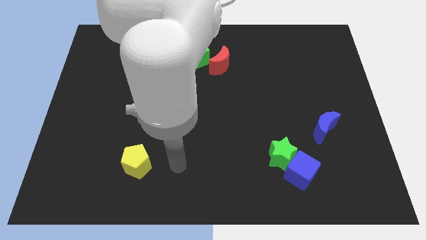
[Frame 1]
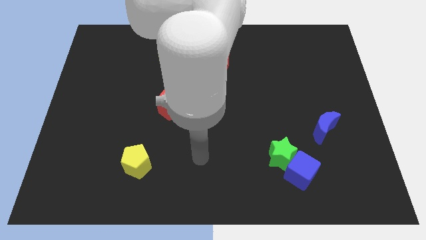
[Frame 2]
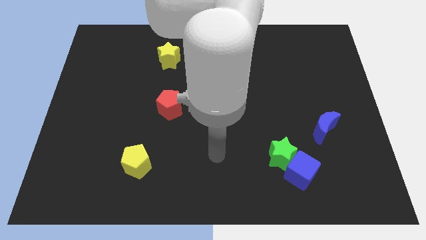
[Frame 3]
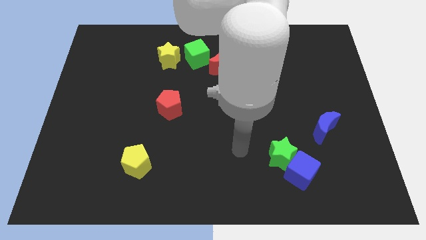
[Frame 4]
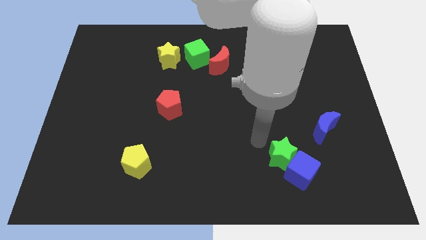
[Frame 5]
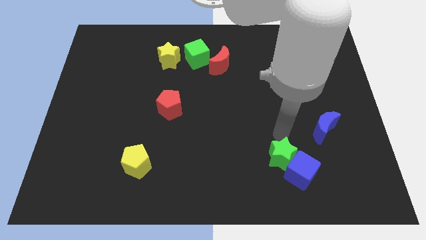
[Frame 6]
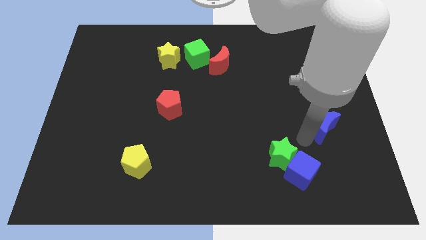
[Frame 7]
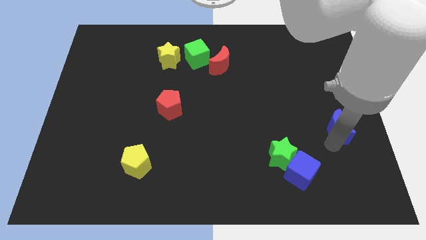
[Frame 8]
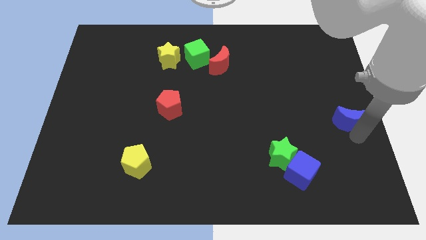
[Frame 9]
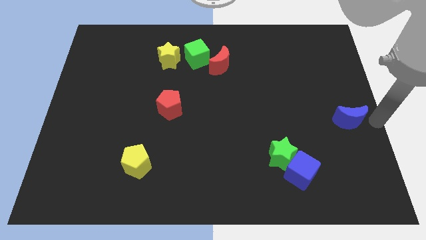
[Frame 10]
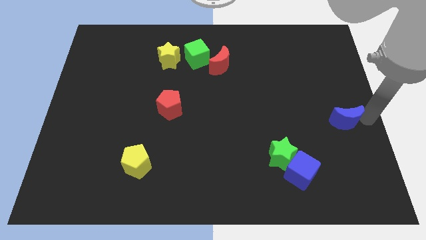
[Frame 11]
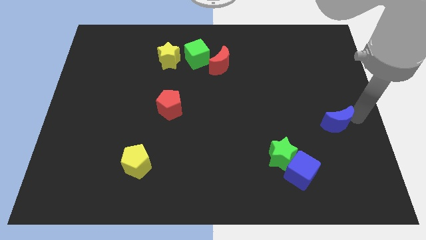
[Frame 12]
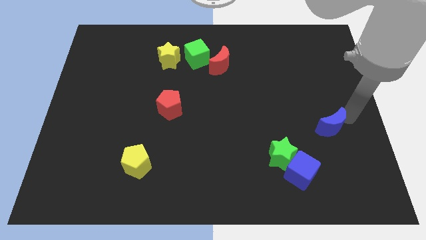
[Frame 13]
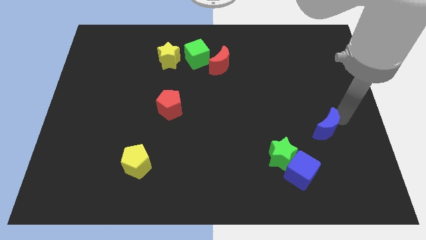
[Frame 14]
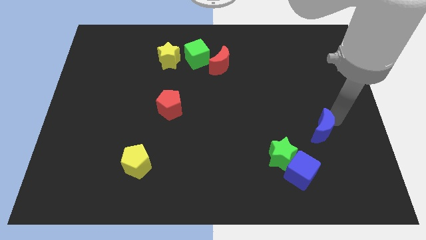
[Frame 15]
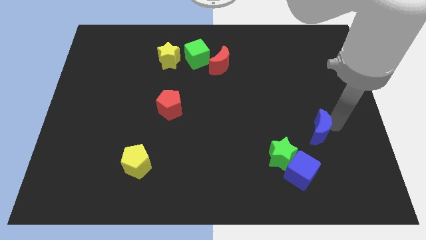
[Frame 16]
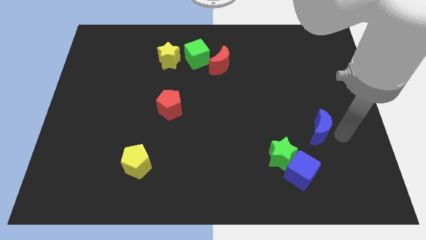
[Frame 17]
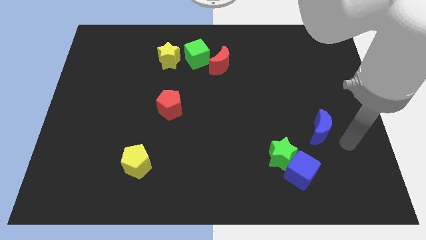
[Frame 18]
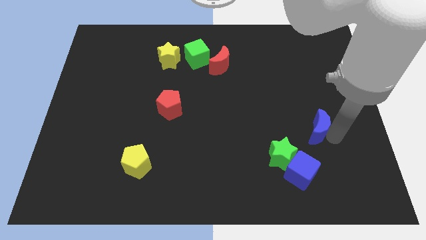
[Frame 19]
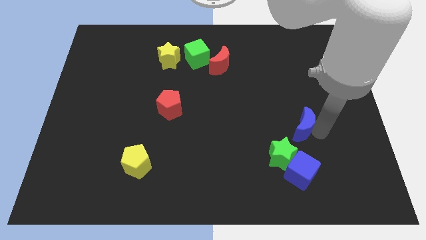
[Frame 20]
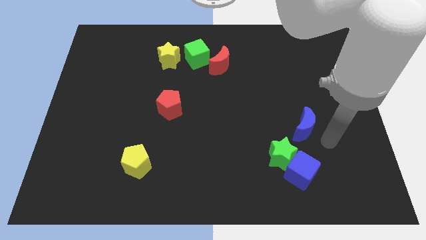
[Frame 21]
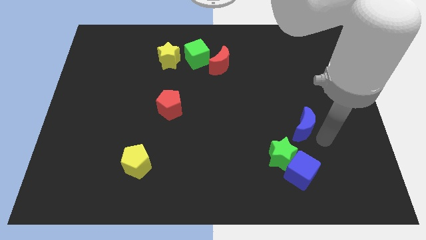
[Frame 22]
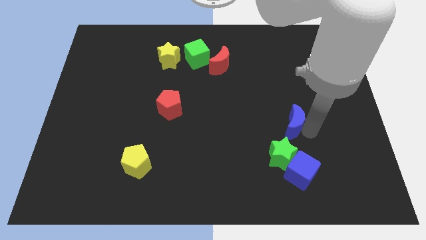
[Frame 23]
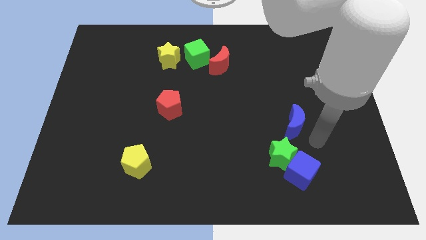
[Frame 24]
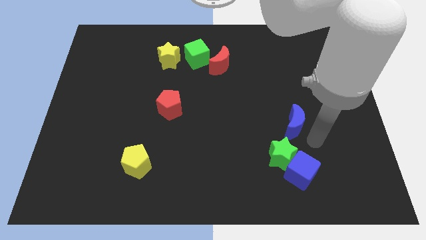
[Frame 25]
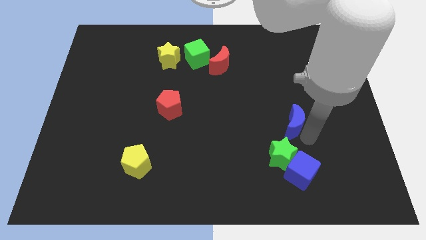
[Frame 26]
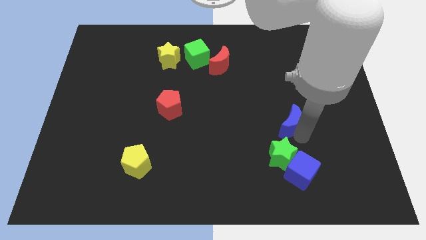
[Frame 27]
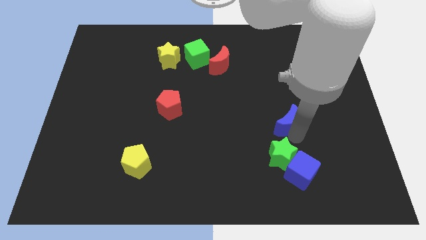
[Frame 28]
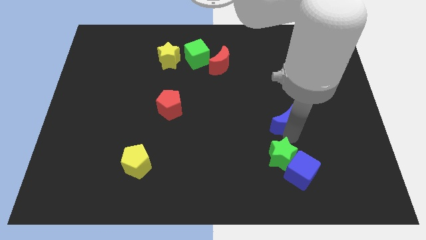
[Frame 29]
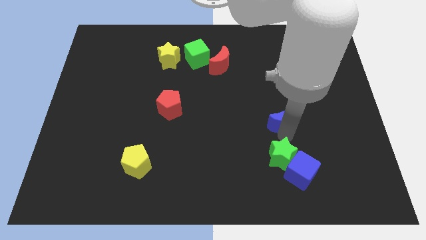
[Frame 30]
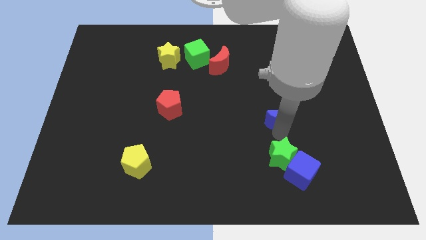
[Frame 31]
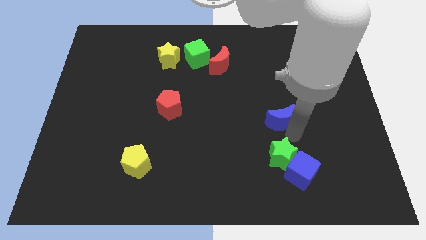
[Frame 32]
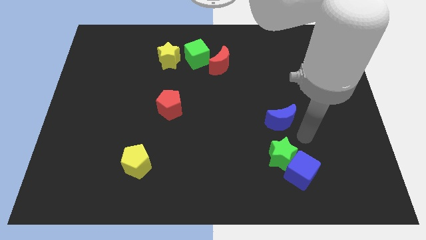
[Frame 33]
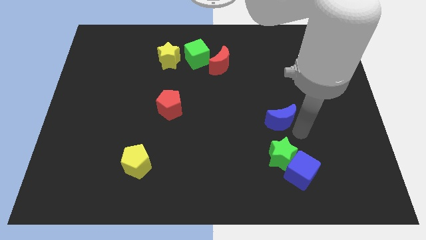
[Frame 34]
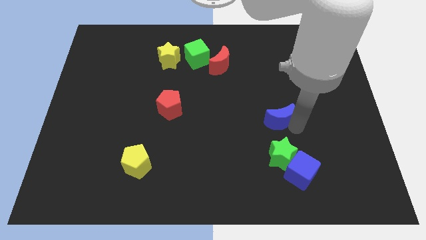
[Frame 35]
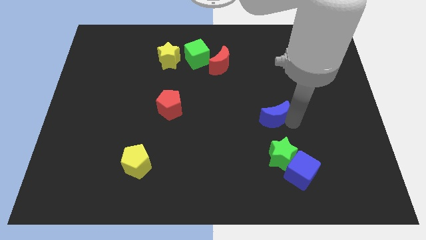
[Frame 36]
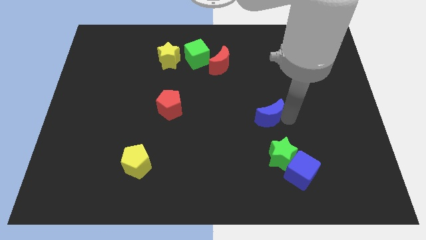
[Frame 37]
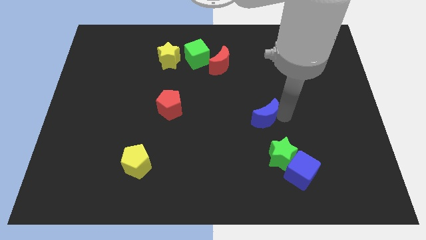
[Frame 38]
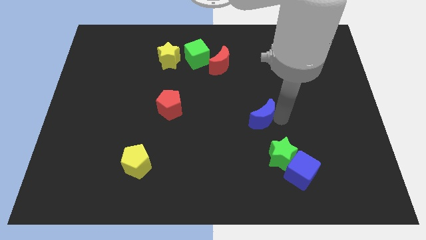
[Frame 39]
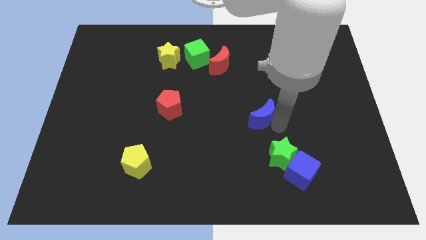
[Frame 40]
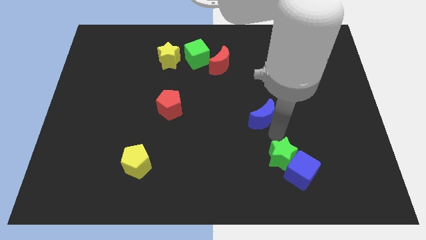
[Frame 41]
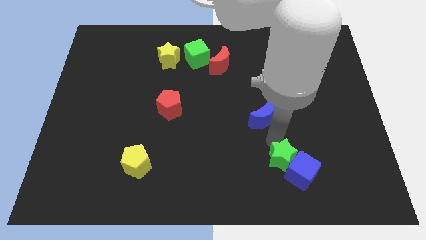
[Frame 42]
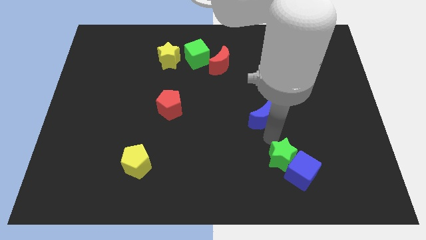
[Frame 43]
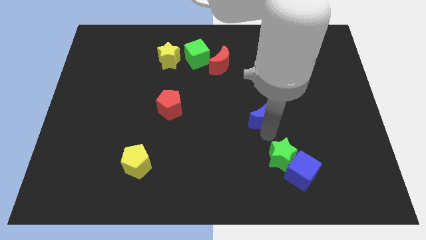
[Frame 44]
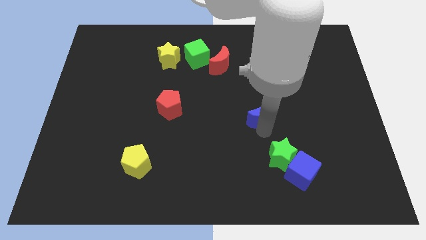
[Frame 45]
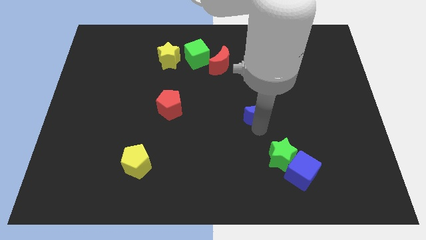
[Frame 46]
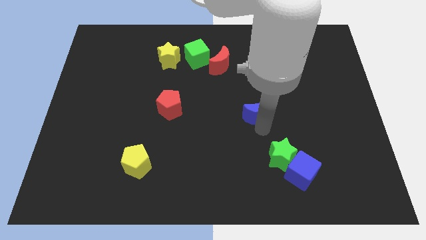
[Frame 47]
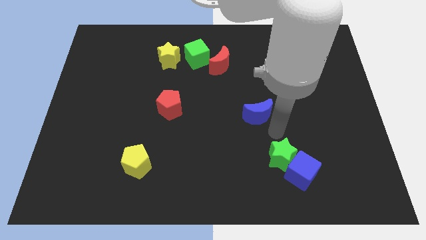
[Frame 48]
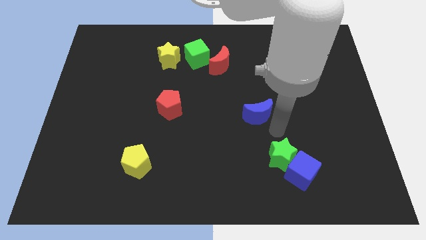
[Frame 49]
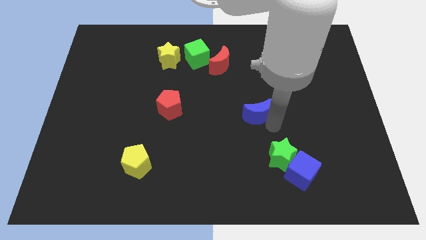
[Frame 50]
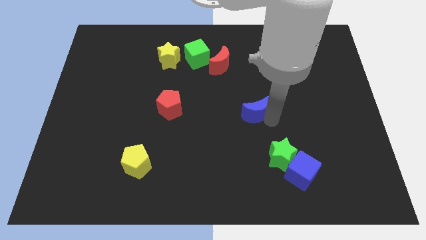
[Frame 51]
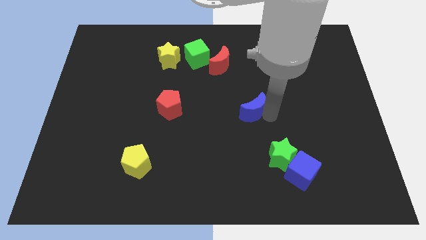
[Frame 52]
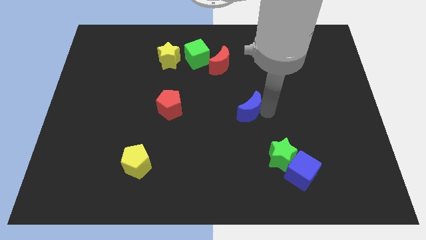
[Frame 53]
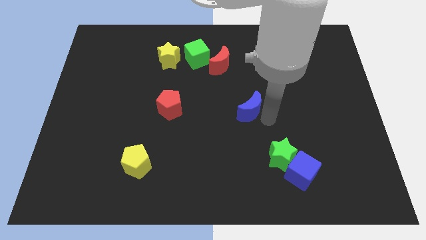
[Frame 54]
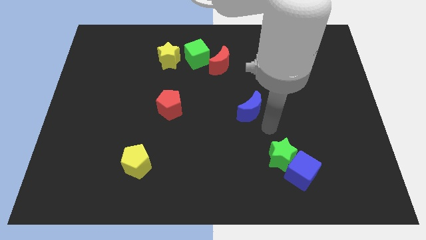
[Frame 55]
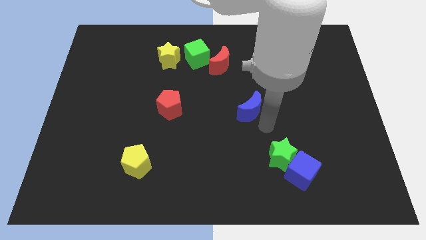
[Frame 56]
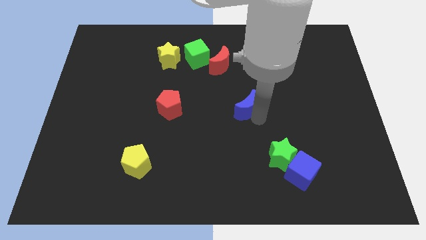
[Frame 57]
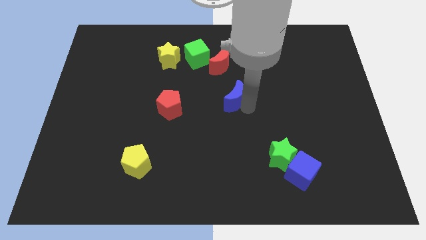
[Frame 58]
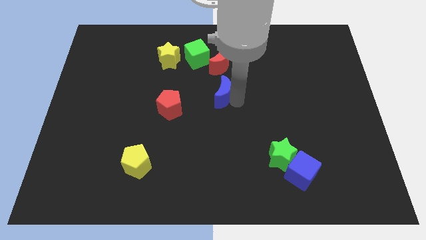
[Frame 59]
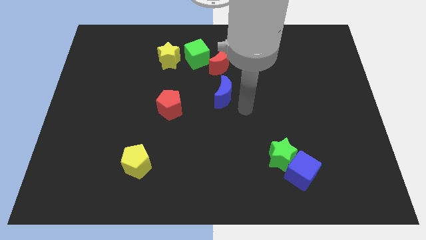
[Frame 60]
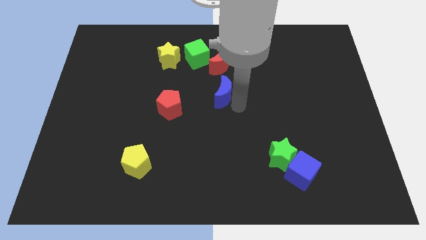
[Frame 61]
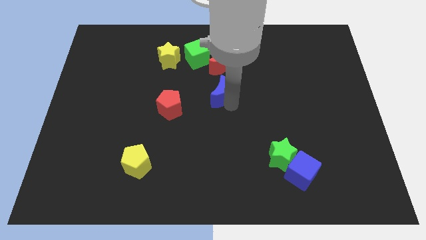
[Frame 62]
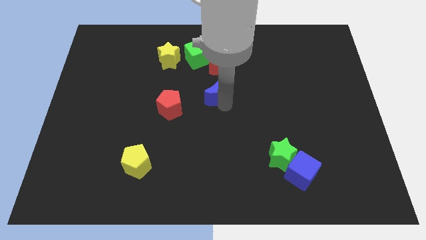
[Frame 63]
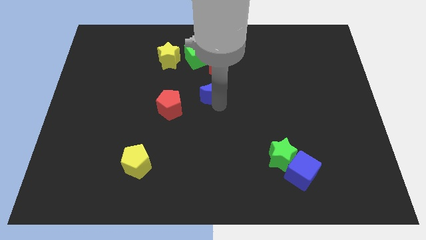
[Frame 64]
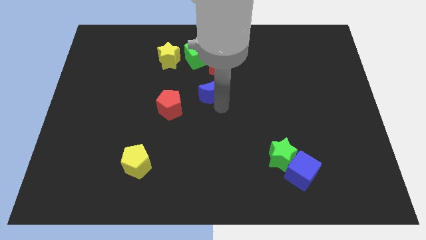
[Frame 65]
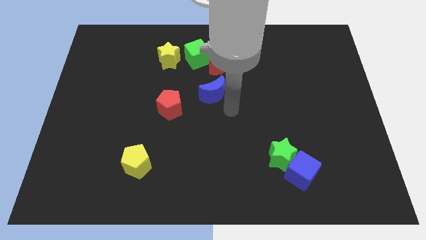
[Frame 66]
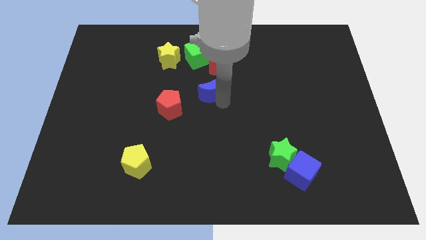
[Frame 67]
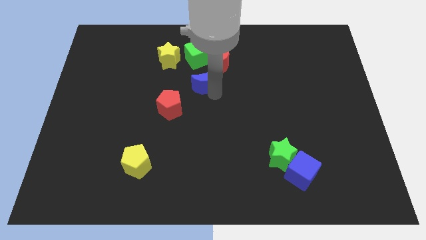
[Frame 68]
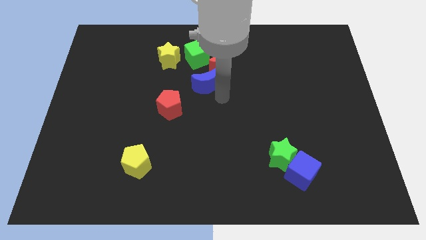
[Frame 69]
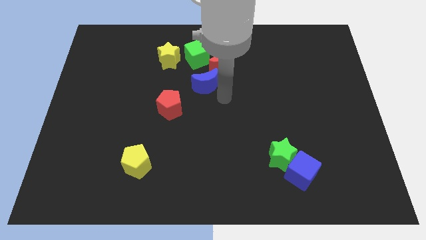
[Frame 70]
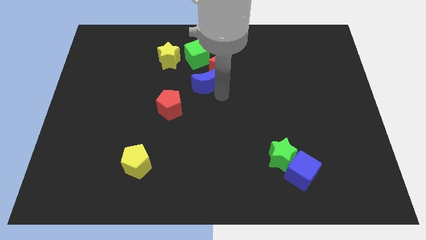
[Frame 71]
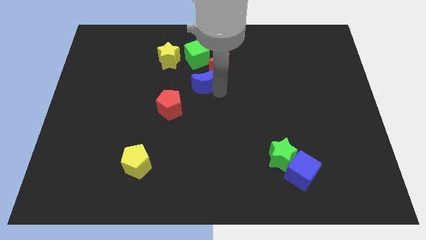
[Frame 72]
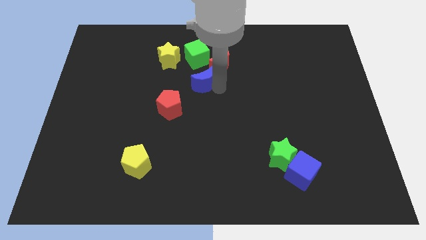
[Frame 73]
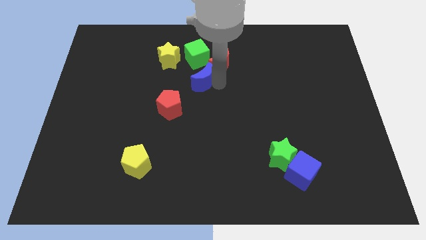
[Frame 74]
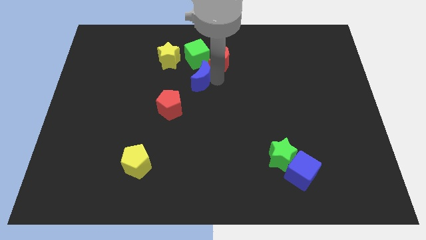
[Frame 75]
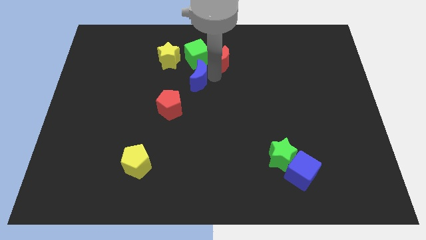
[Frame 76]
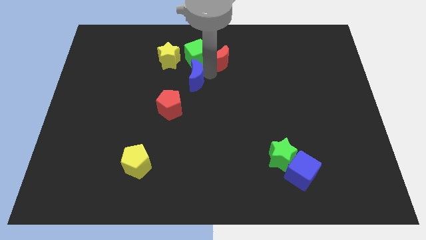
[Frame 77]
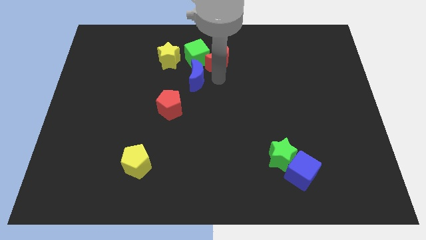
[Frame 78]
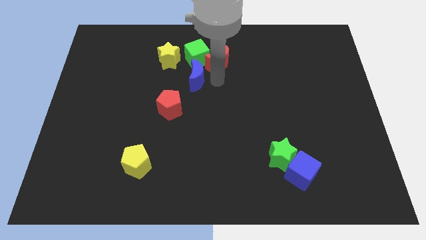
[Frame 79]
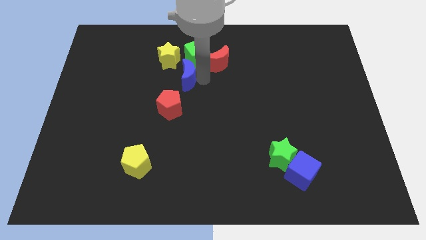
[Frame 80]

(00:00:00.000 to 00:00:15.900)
push the blue moon to the top of the red pentagon
